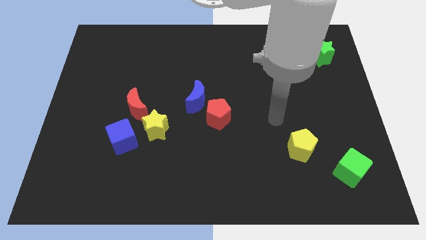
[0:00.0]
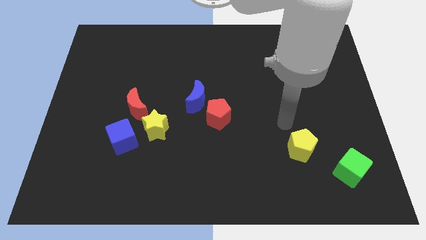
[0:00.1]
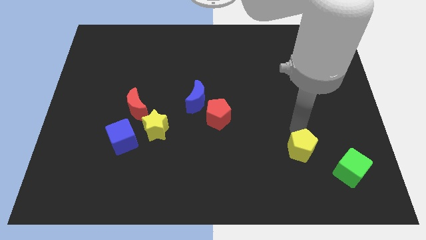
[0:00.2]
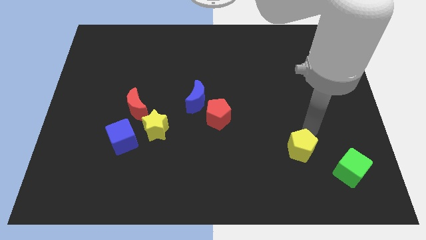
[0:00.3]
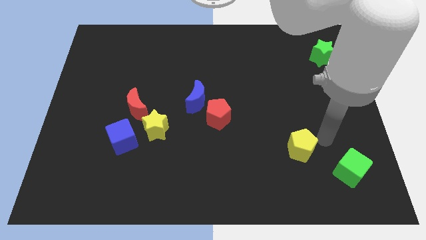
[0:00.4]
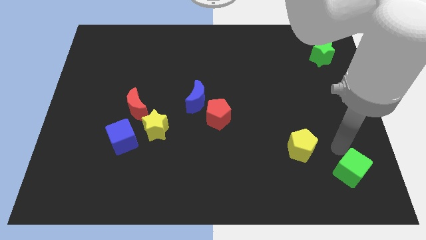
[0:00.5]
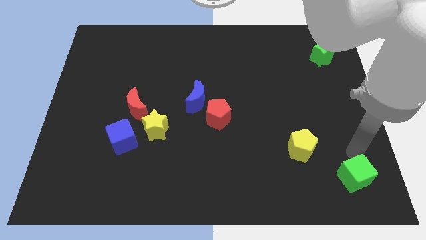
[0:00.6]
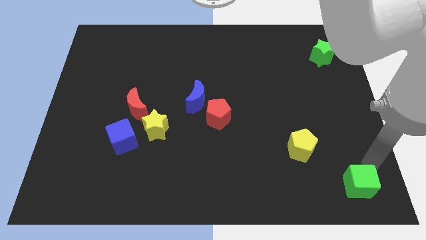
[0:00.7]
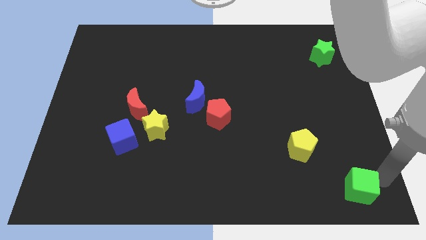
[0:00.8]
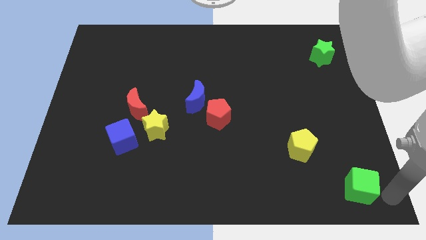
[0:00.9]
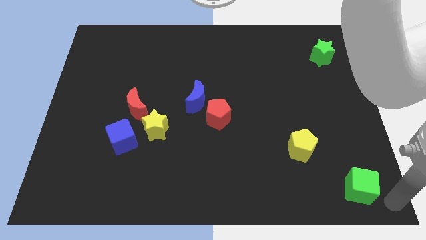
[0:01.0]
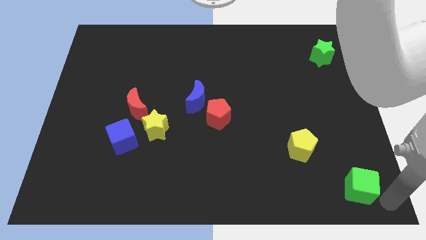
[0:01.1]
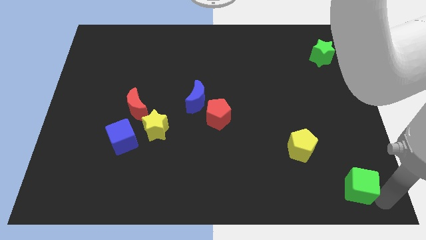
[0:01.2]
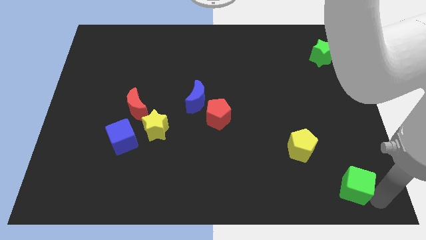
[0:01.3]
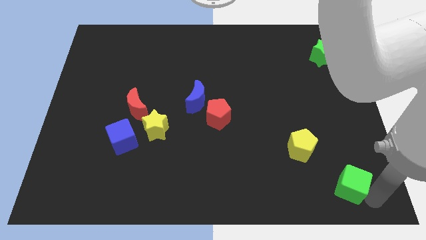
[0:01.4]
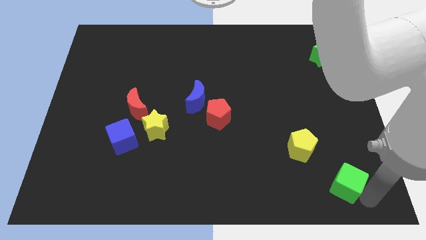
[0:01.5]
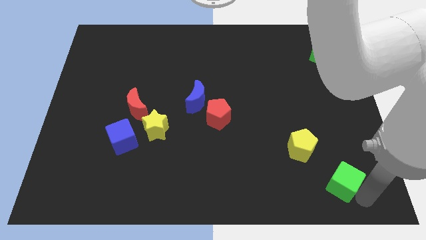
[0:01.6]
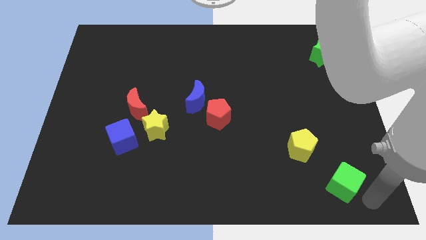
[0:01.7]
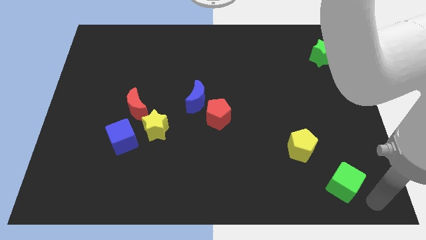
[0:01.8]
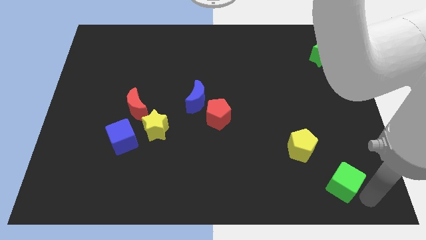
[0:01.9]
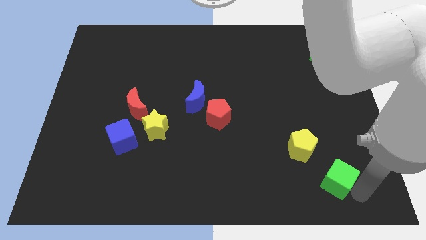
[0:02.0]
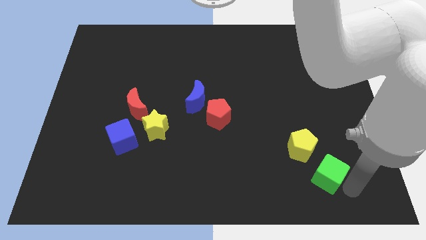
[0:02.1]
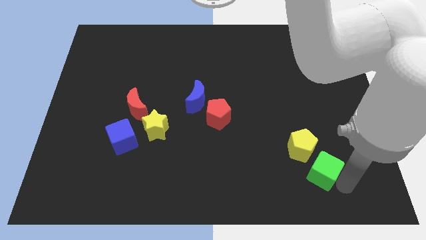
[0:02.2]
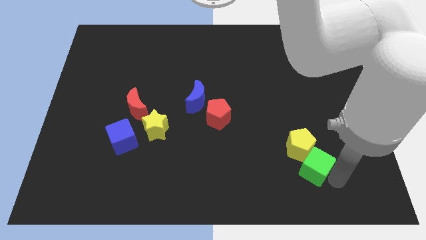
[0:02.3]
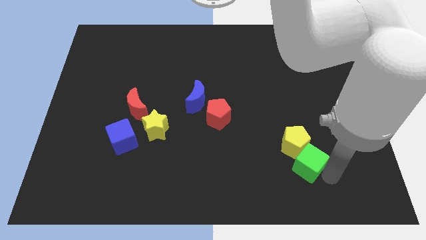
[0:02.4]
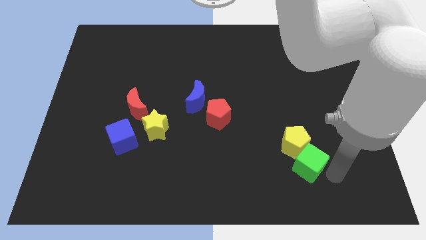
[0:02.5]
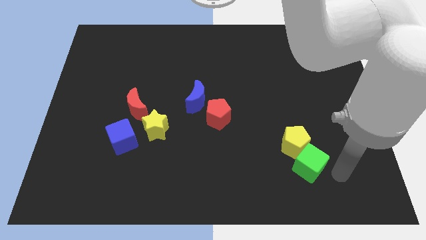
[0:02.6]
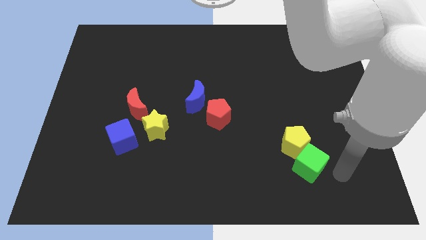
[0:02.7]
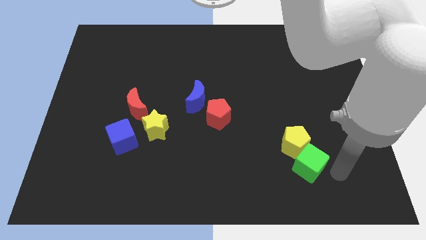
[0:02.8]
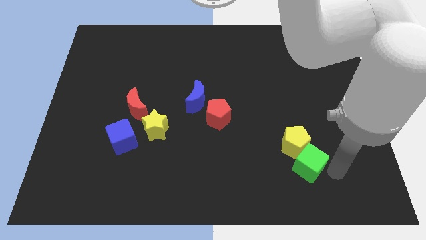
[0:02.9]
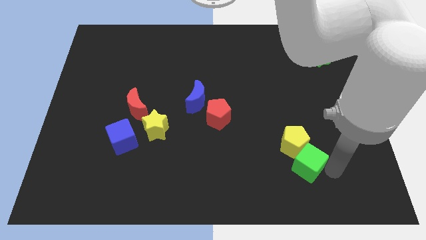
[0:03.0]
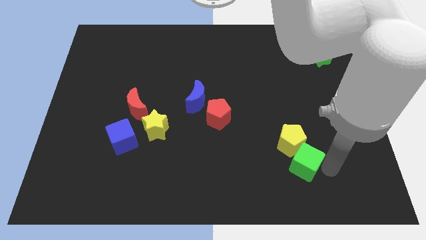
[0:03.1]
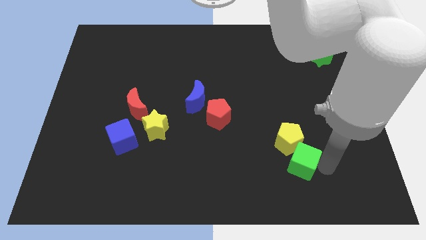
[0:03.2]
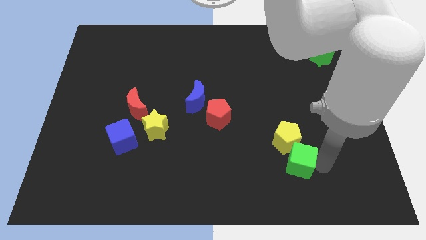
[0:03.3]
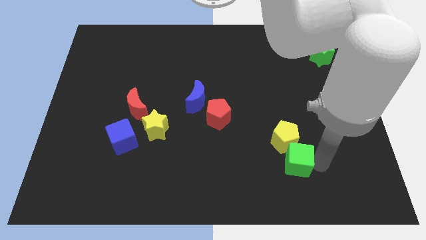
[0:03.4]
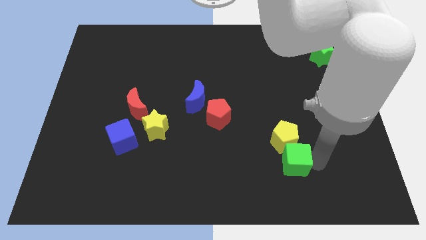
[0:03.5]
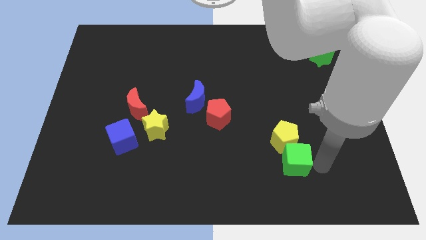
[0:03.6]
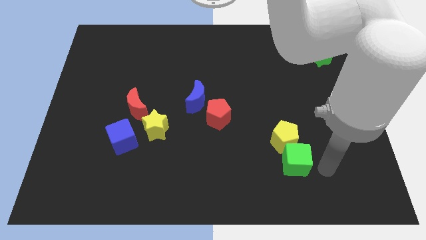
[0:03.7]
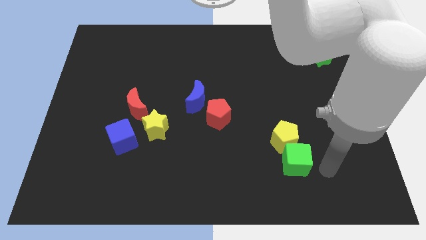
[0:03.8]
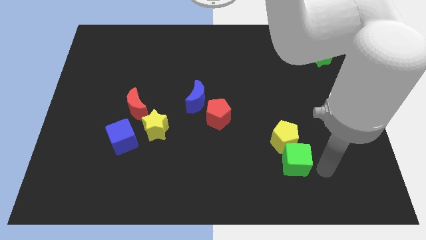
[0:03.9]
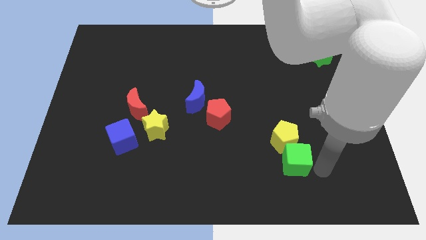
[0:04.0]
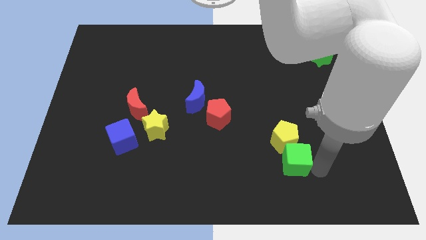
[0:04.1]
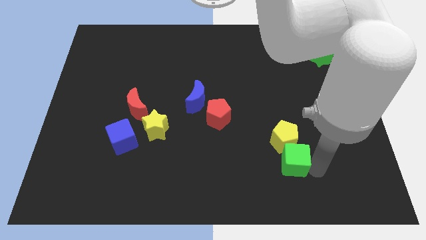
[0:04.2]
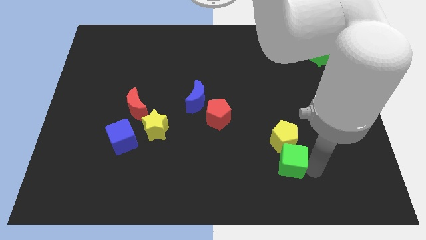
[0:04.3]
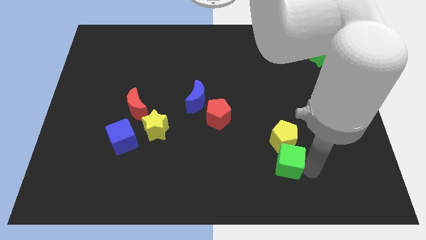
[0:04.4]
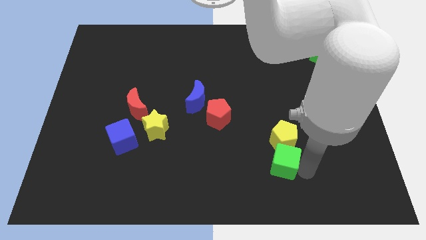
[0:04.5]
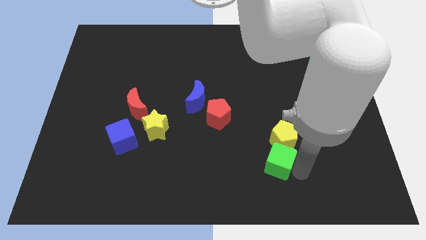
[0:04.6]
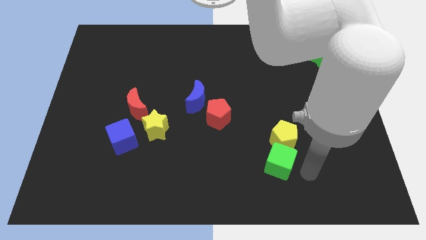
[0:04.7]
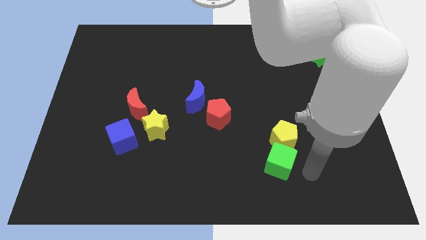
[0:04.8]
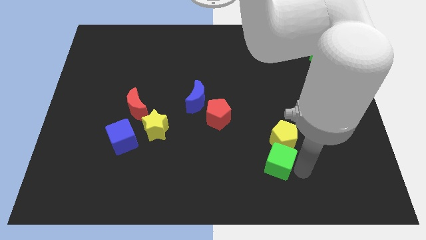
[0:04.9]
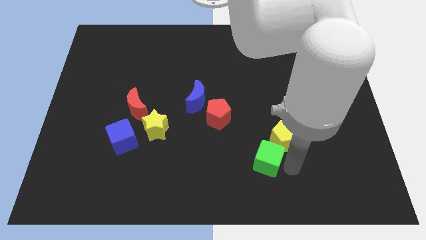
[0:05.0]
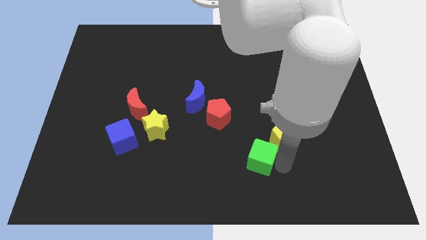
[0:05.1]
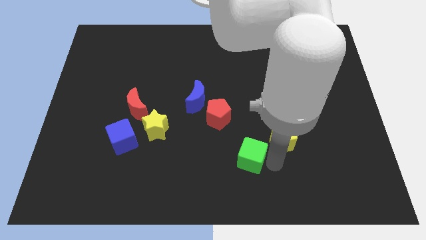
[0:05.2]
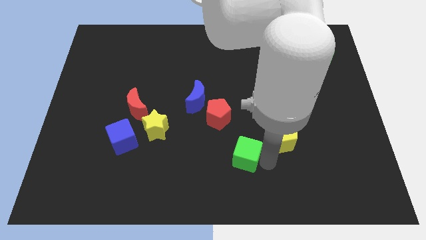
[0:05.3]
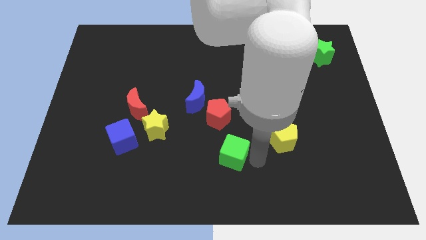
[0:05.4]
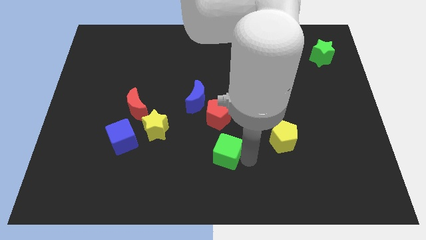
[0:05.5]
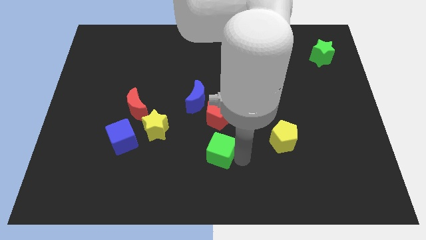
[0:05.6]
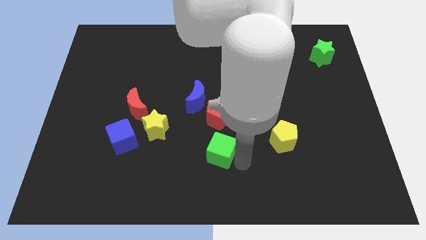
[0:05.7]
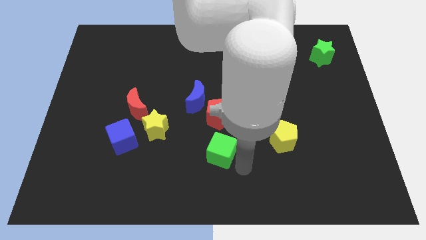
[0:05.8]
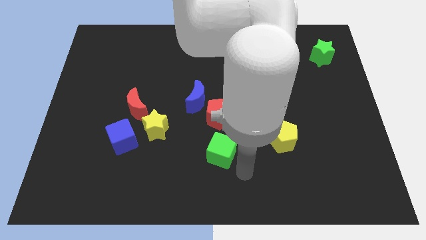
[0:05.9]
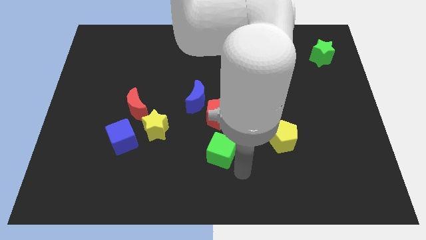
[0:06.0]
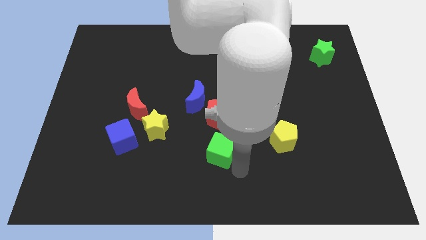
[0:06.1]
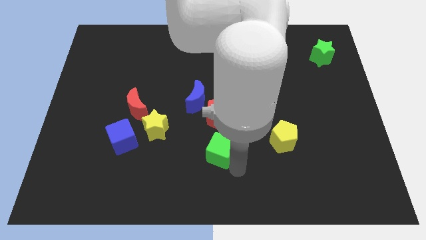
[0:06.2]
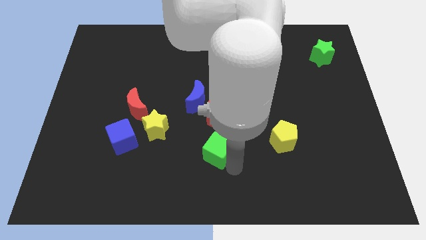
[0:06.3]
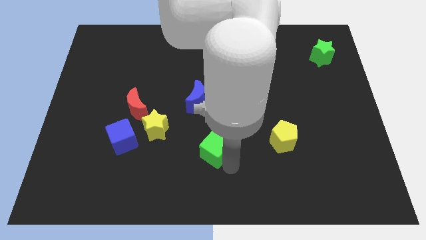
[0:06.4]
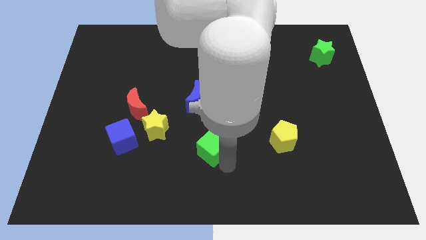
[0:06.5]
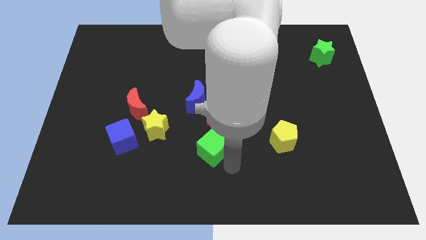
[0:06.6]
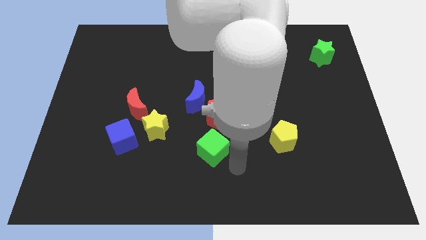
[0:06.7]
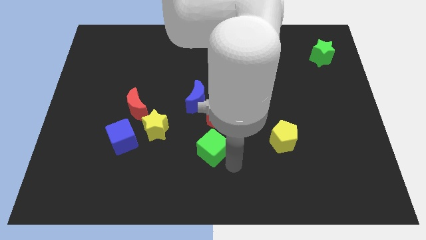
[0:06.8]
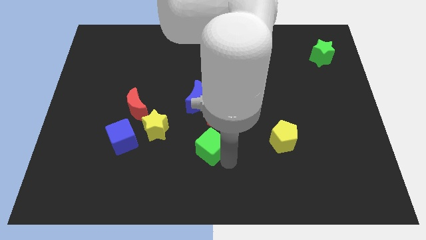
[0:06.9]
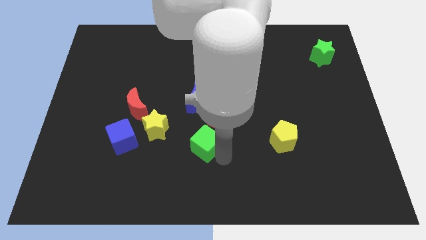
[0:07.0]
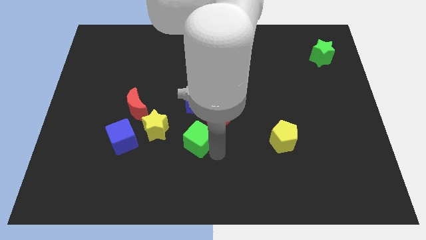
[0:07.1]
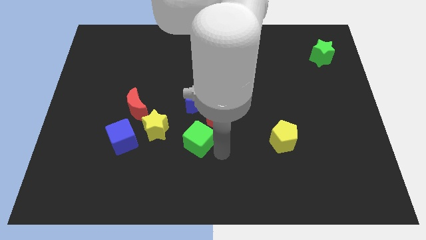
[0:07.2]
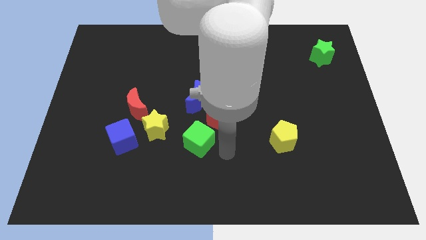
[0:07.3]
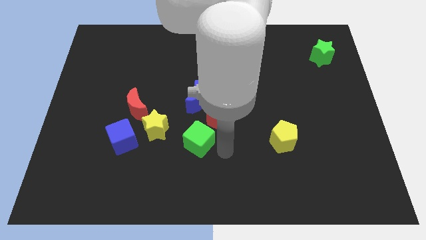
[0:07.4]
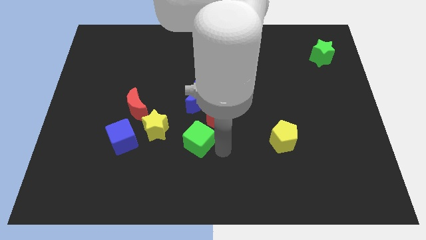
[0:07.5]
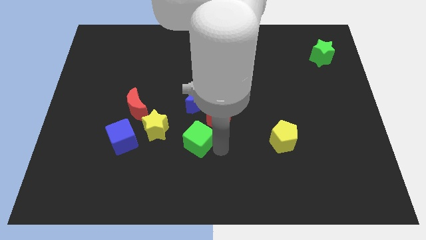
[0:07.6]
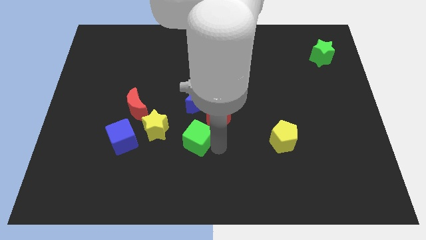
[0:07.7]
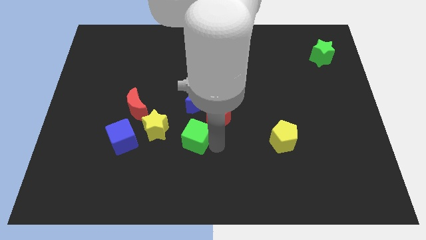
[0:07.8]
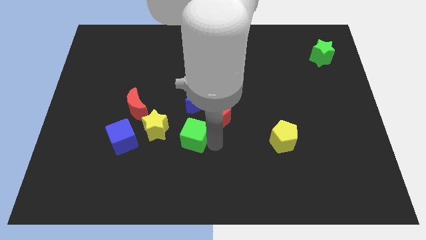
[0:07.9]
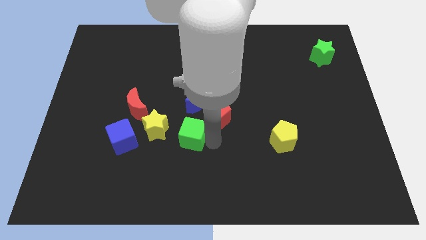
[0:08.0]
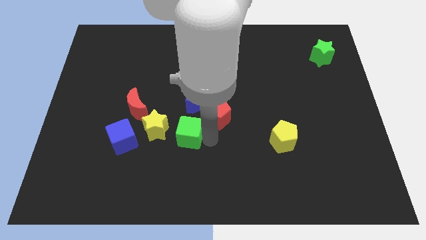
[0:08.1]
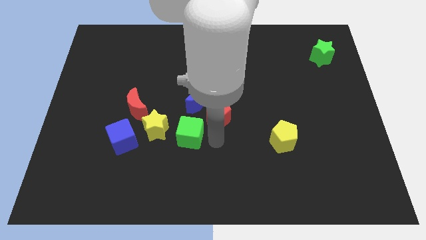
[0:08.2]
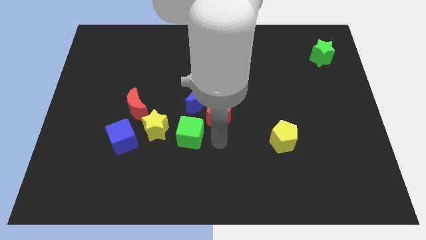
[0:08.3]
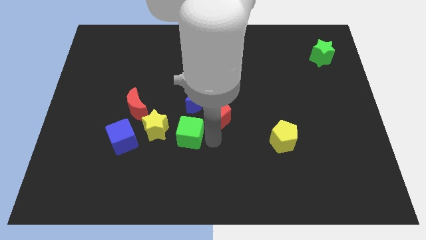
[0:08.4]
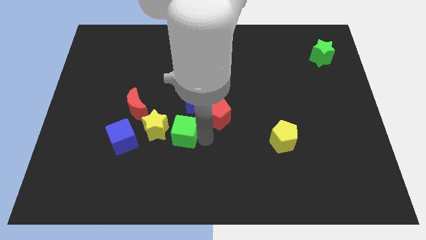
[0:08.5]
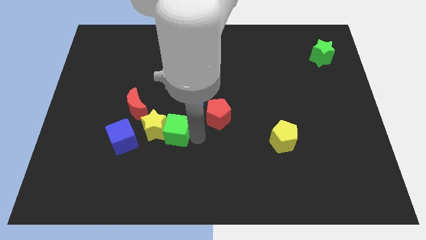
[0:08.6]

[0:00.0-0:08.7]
move the green cube next to the yellow star
